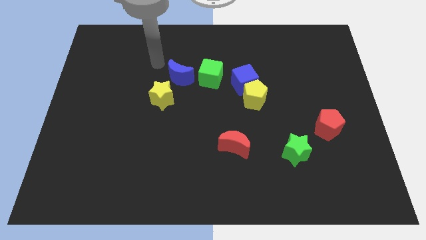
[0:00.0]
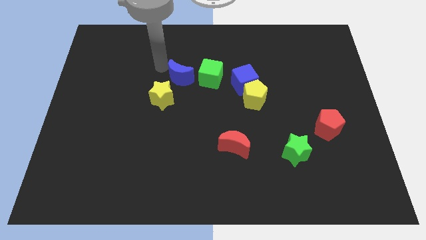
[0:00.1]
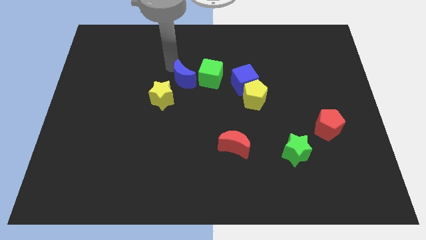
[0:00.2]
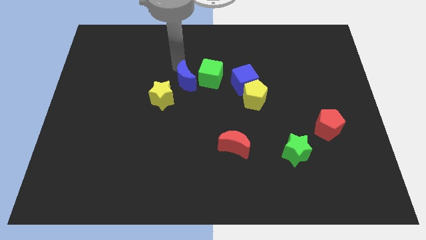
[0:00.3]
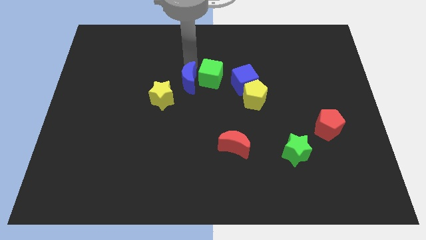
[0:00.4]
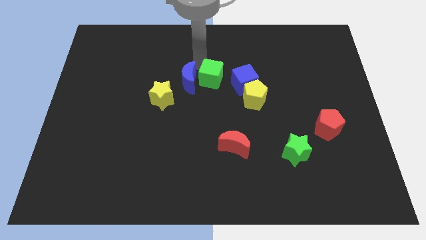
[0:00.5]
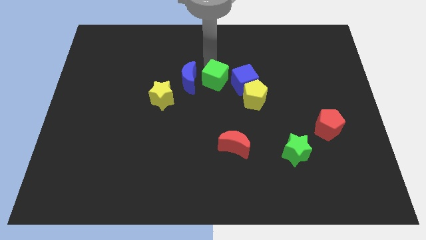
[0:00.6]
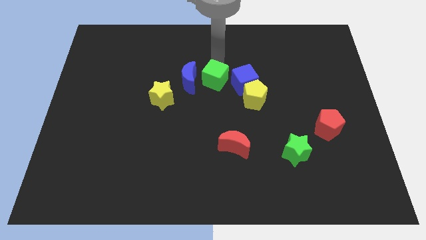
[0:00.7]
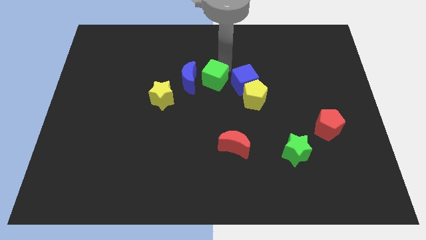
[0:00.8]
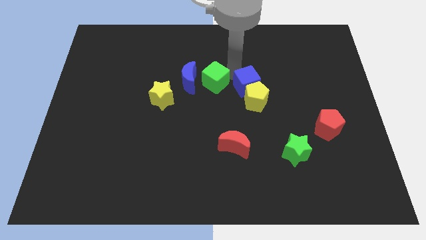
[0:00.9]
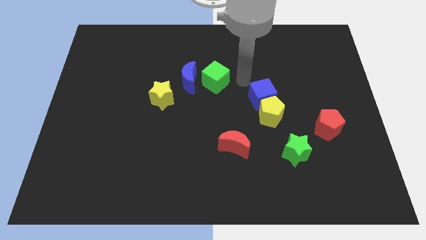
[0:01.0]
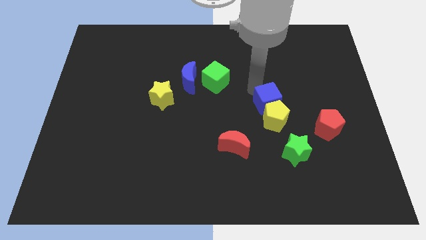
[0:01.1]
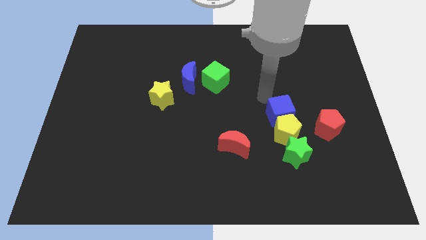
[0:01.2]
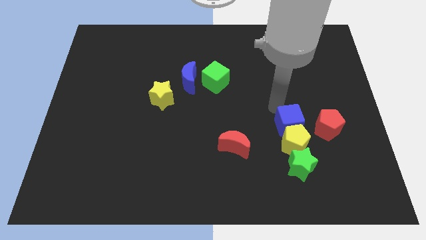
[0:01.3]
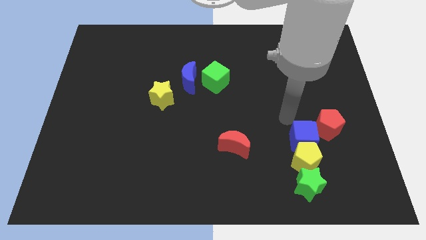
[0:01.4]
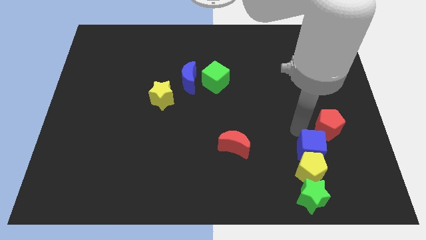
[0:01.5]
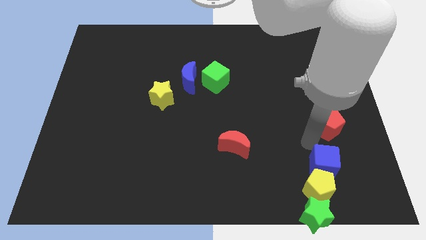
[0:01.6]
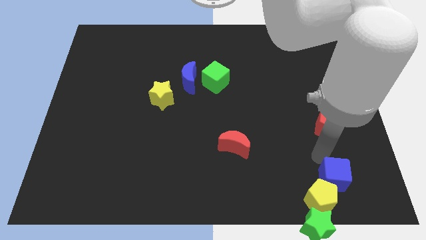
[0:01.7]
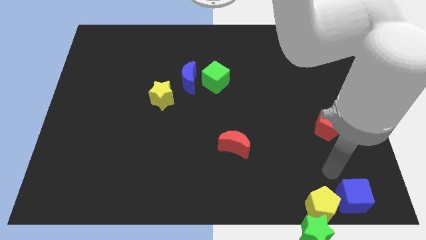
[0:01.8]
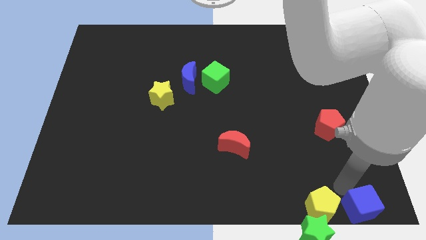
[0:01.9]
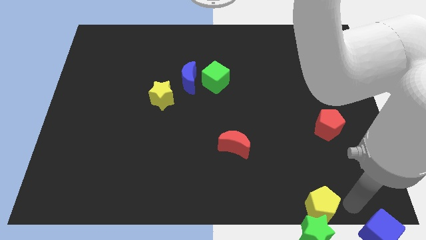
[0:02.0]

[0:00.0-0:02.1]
pull the yellow pentagon apart from the blue cube

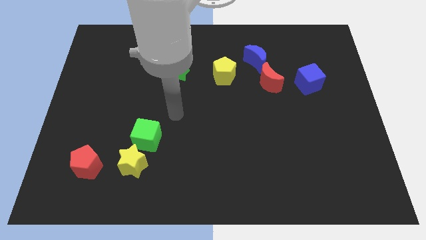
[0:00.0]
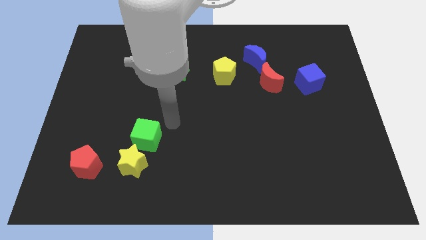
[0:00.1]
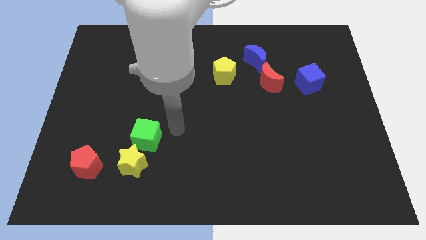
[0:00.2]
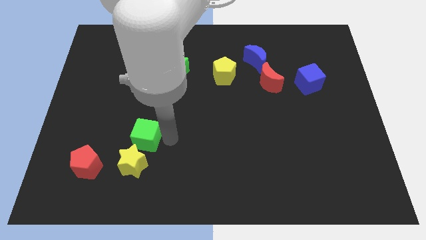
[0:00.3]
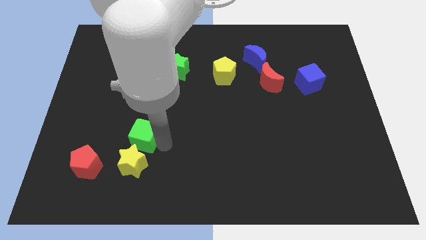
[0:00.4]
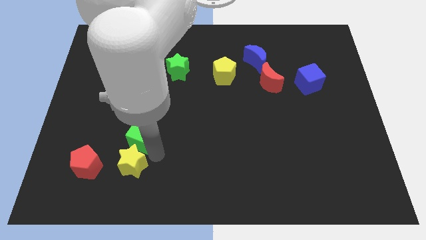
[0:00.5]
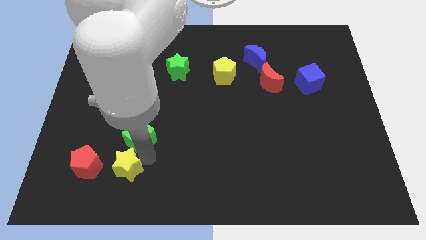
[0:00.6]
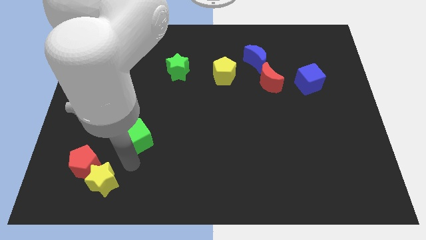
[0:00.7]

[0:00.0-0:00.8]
move the green cube away from the yellow star

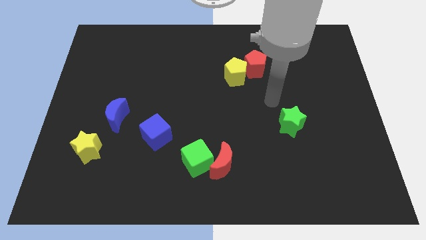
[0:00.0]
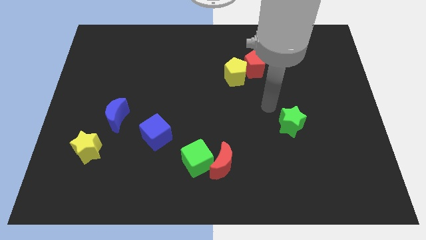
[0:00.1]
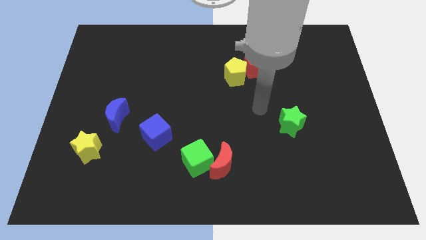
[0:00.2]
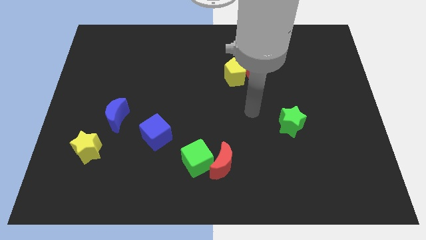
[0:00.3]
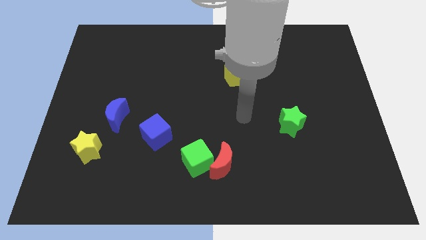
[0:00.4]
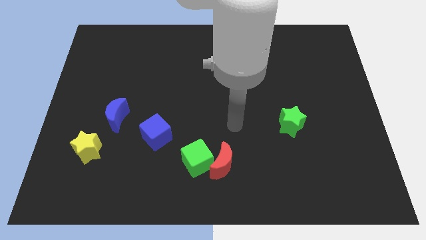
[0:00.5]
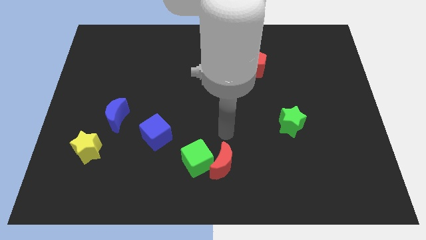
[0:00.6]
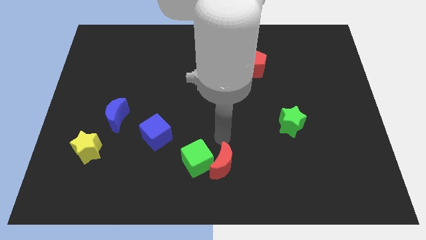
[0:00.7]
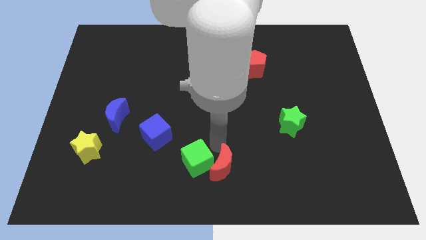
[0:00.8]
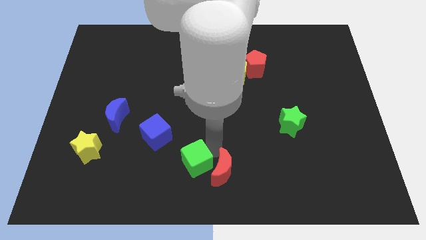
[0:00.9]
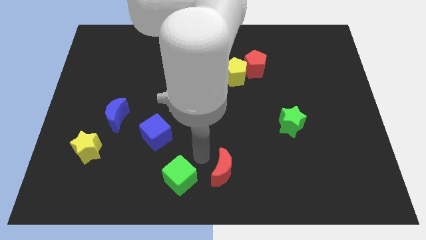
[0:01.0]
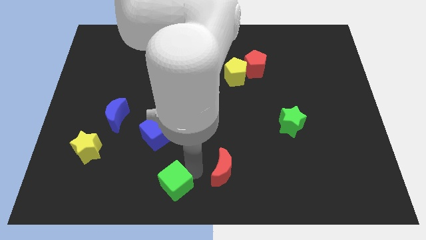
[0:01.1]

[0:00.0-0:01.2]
pull the red moon apart from the green cube

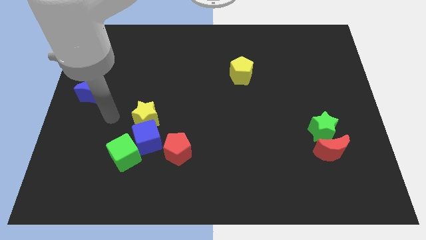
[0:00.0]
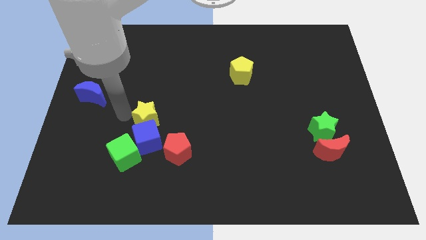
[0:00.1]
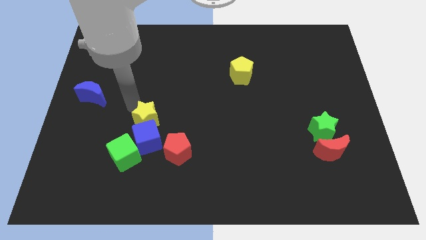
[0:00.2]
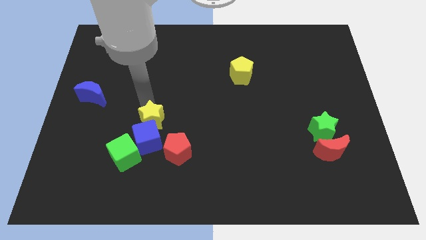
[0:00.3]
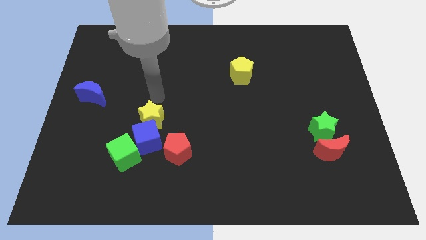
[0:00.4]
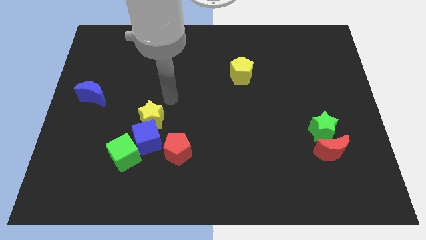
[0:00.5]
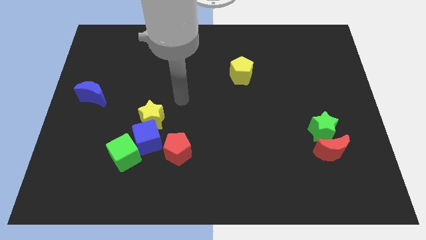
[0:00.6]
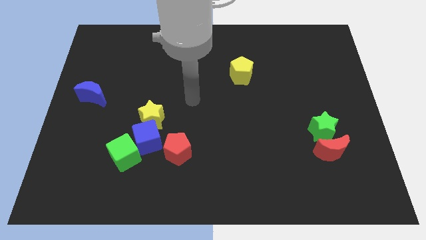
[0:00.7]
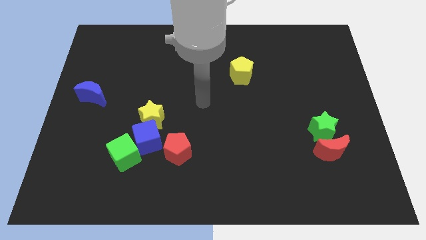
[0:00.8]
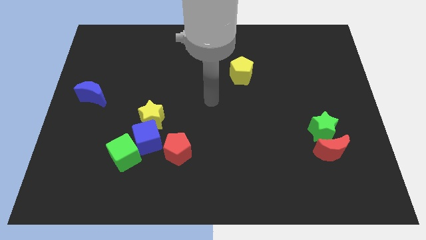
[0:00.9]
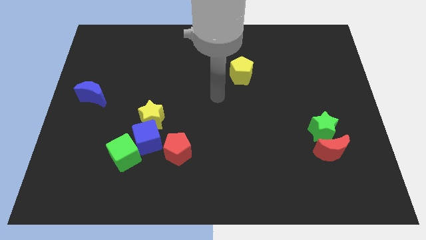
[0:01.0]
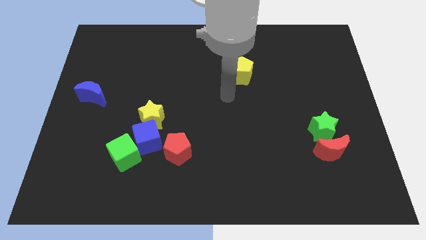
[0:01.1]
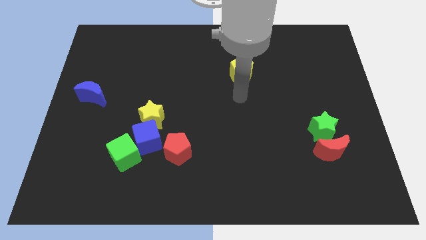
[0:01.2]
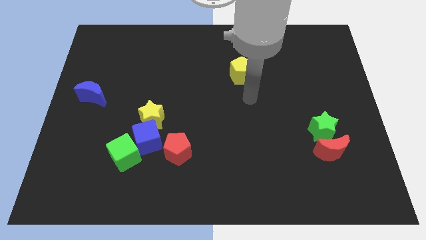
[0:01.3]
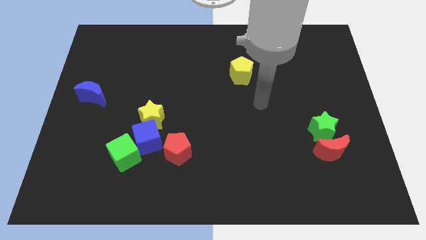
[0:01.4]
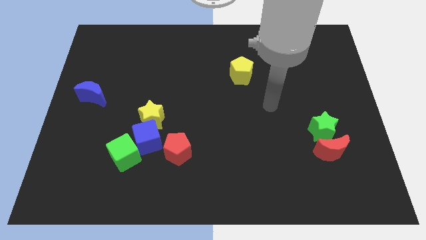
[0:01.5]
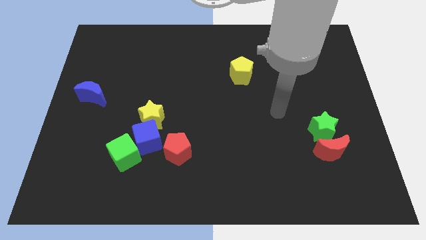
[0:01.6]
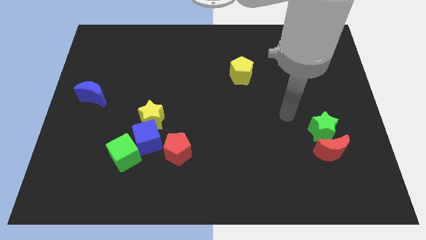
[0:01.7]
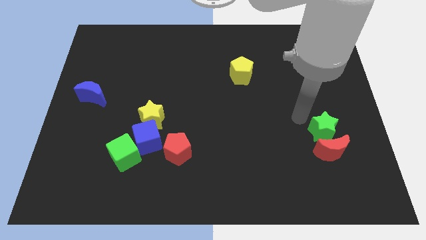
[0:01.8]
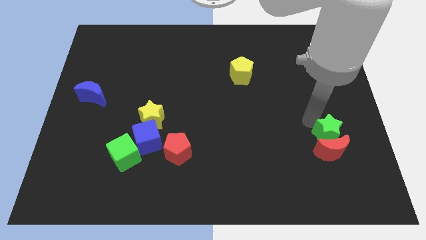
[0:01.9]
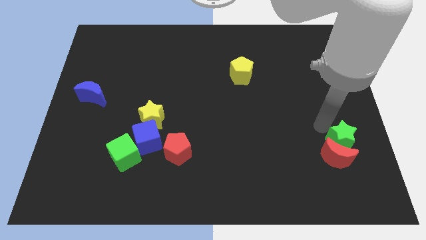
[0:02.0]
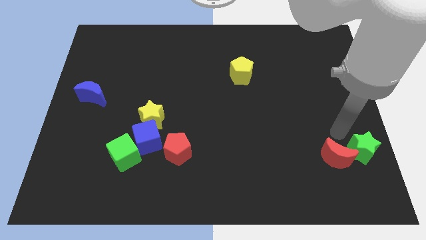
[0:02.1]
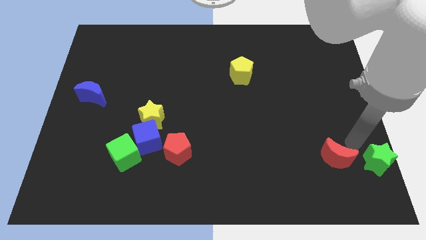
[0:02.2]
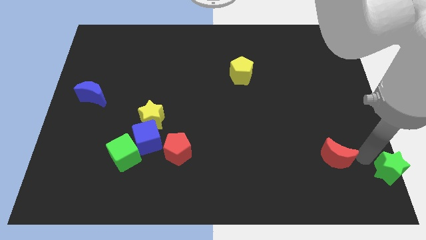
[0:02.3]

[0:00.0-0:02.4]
separate the red moon from the green star

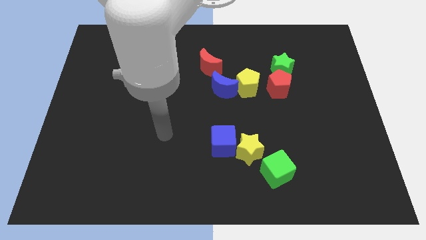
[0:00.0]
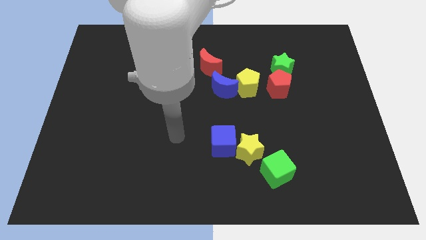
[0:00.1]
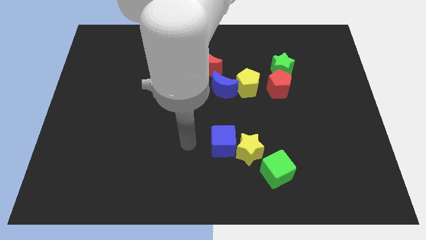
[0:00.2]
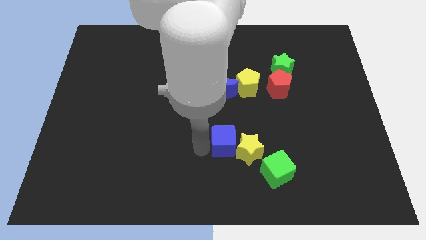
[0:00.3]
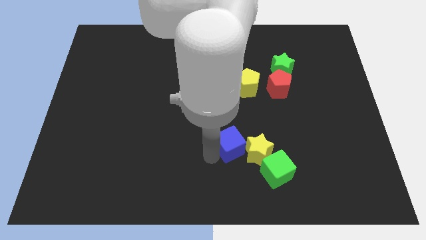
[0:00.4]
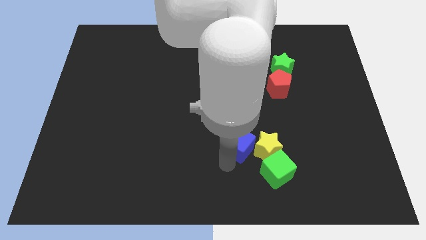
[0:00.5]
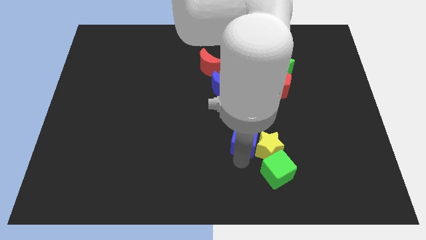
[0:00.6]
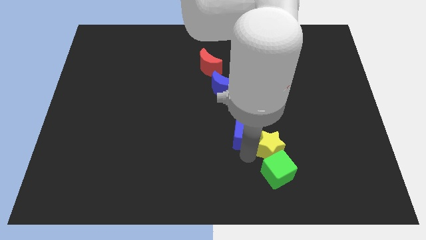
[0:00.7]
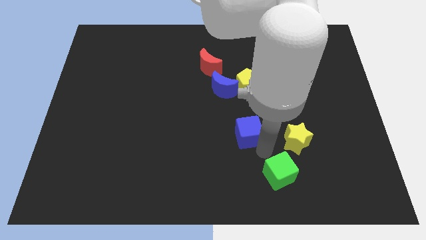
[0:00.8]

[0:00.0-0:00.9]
separate the blue cube from the yellow star

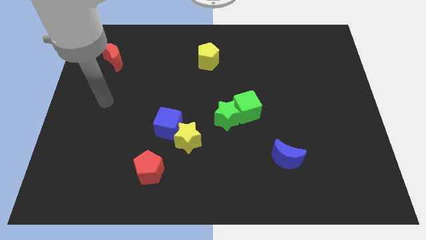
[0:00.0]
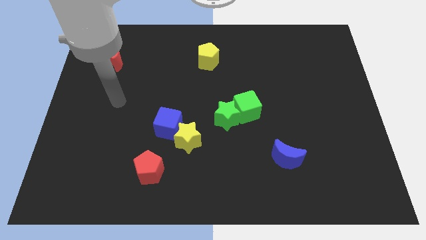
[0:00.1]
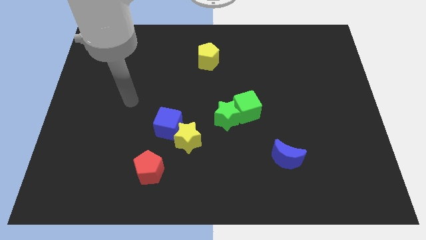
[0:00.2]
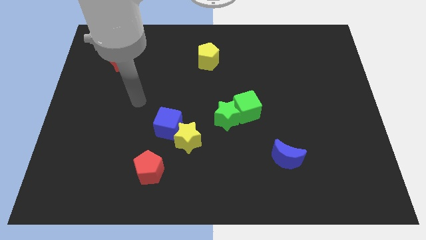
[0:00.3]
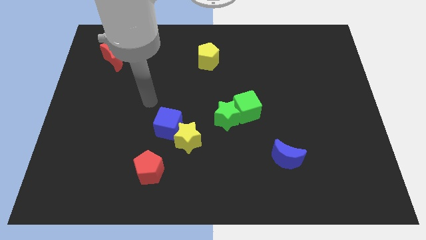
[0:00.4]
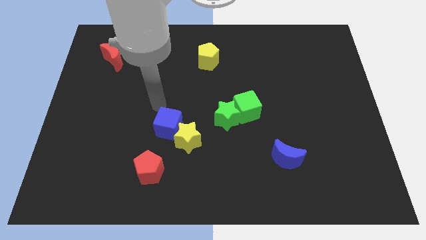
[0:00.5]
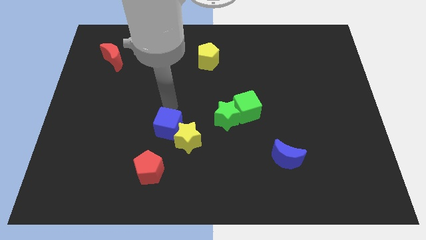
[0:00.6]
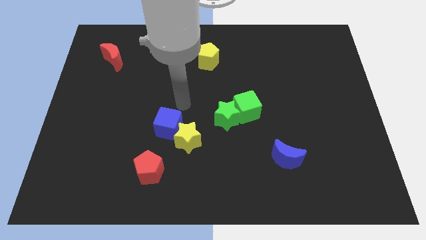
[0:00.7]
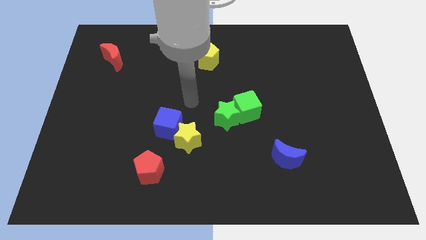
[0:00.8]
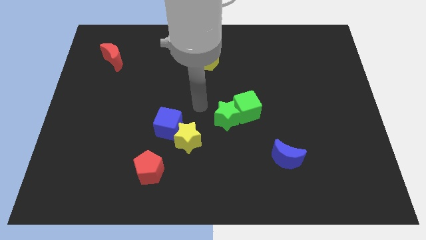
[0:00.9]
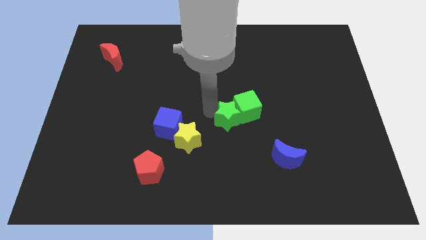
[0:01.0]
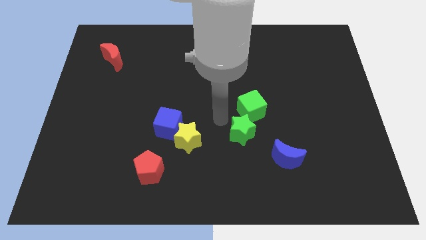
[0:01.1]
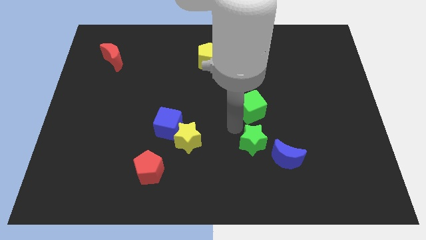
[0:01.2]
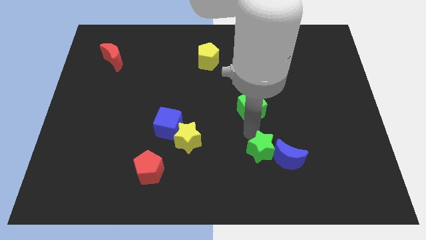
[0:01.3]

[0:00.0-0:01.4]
separate the green cube from the green star

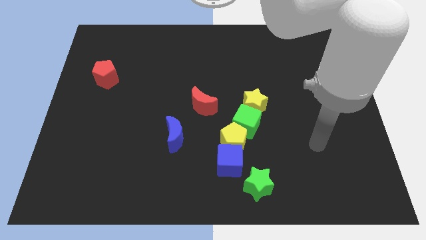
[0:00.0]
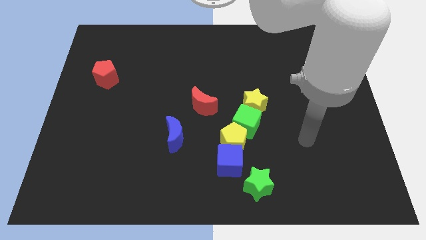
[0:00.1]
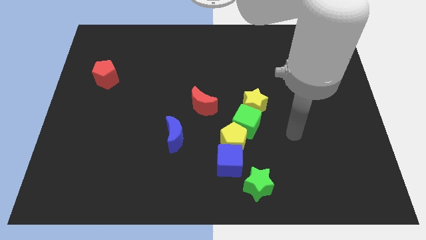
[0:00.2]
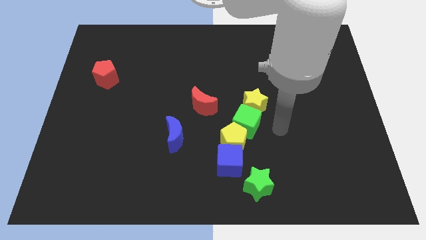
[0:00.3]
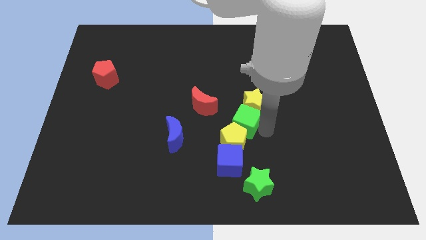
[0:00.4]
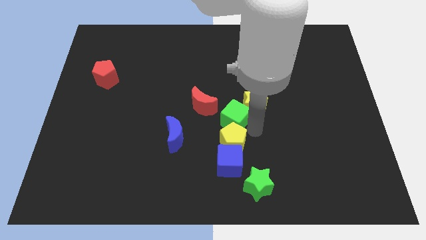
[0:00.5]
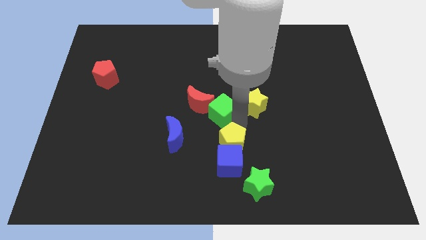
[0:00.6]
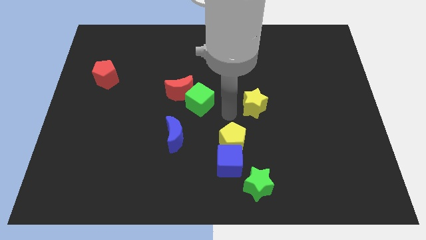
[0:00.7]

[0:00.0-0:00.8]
separate the yellow star from the green cube
